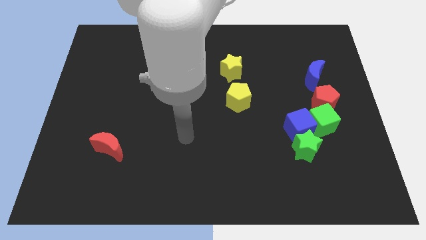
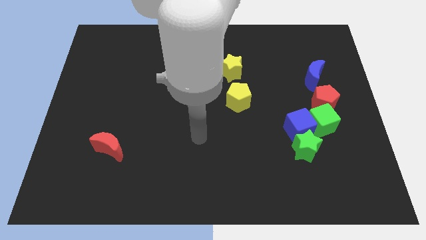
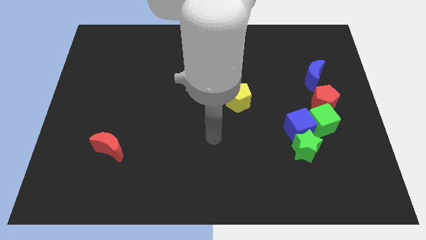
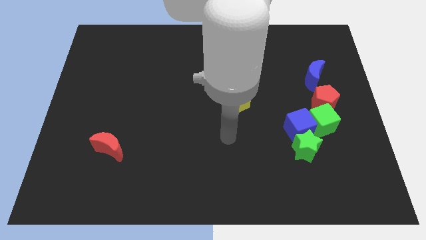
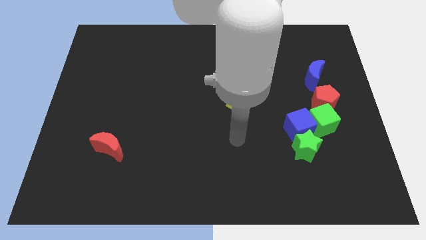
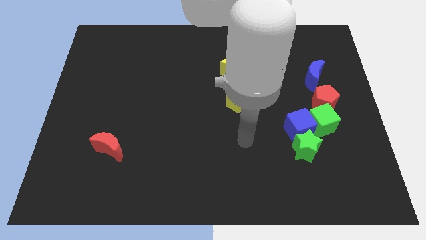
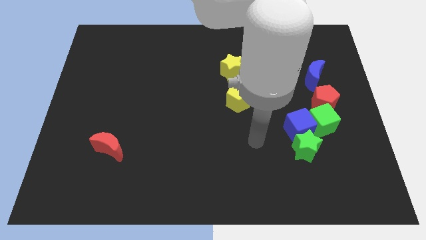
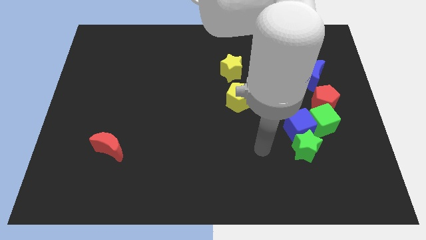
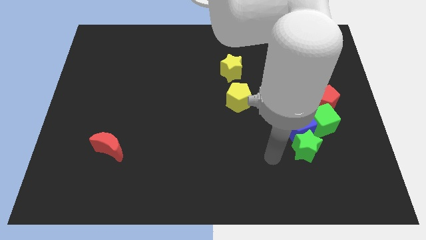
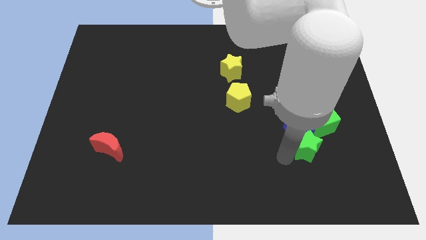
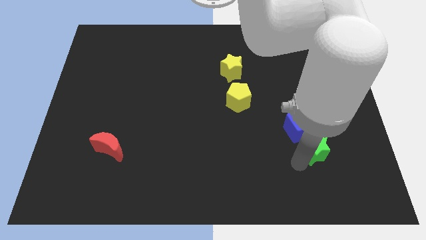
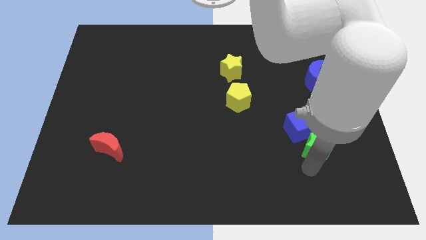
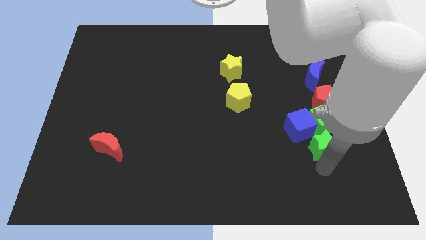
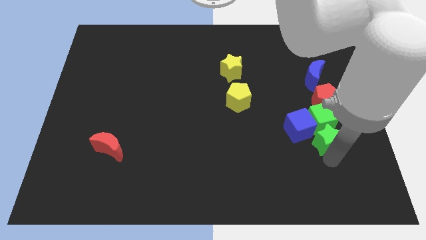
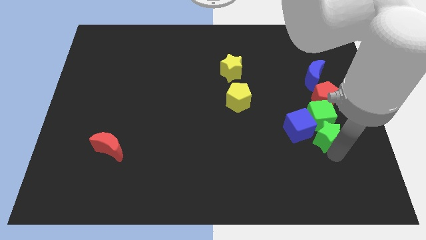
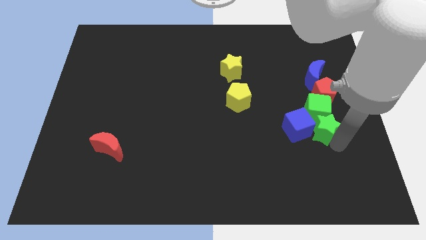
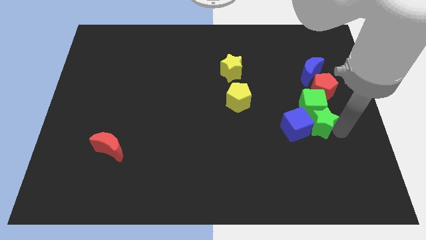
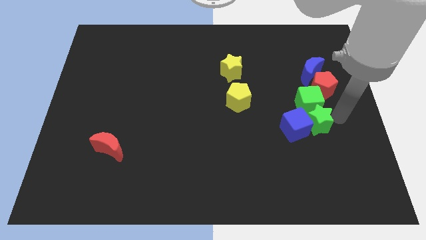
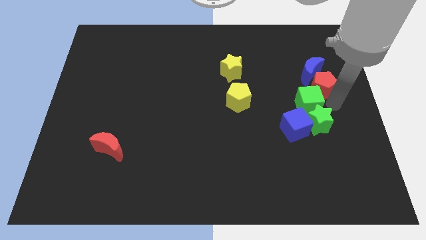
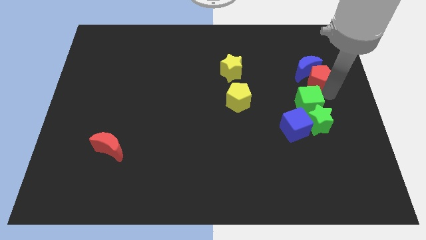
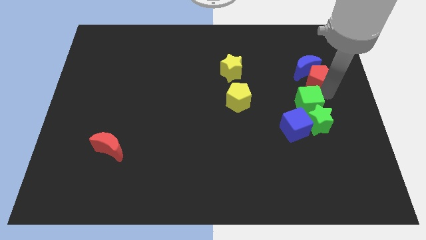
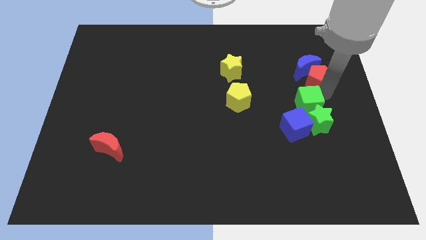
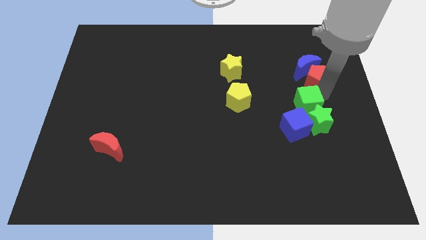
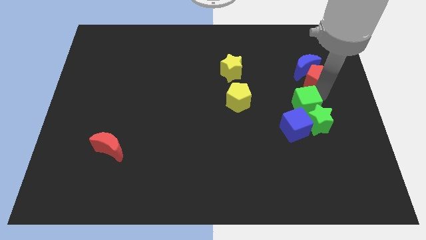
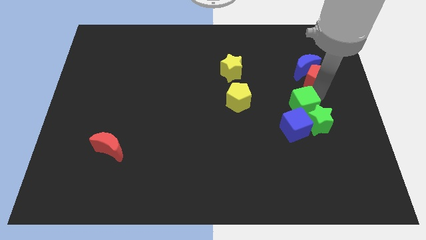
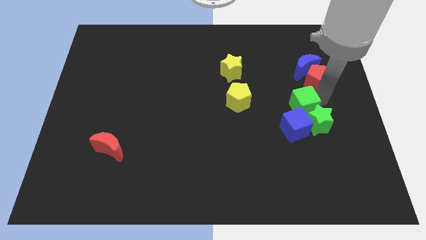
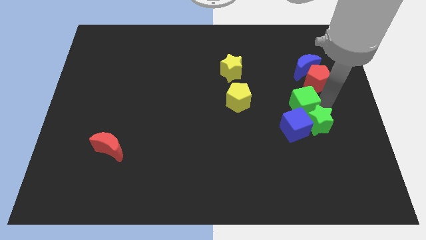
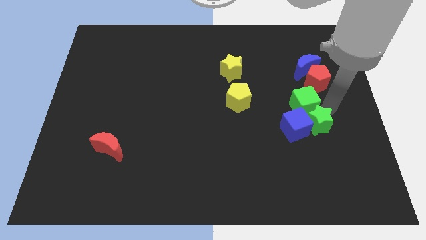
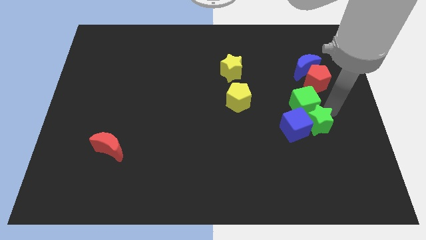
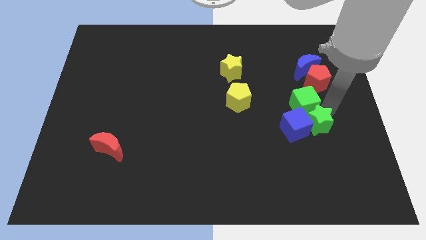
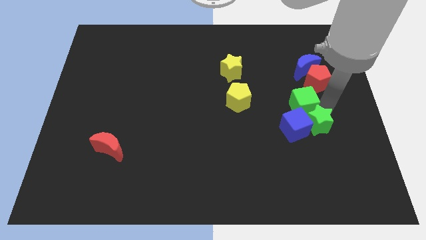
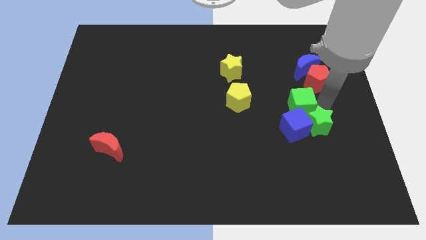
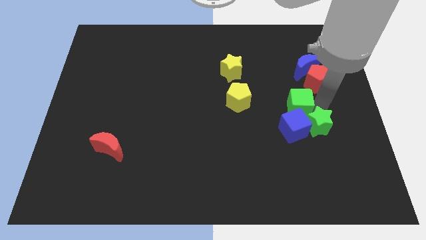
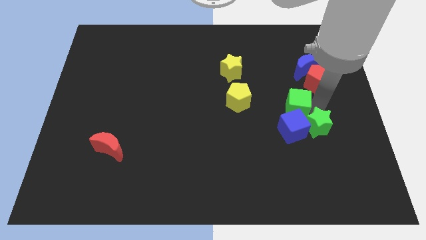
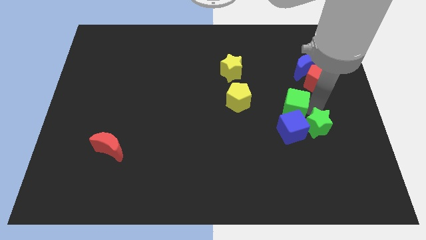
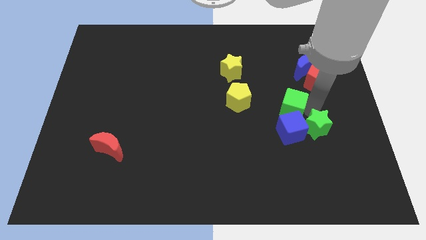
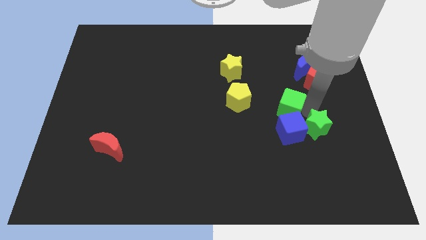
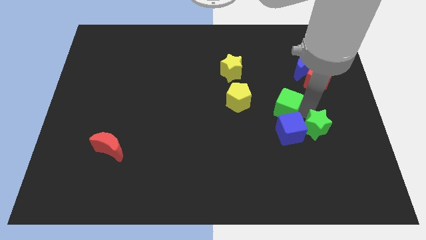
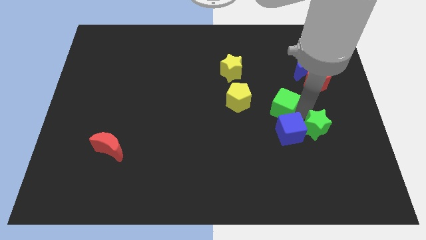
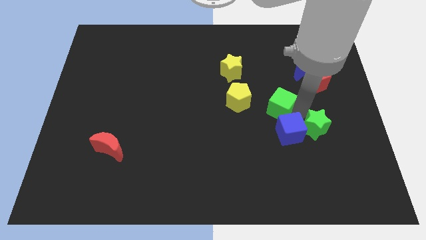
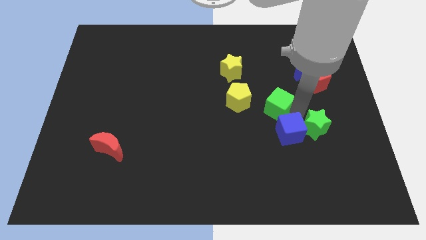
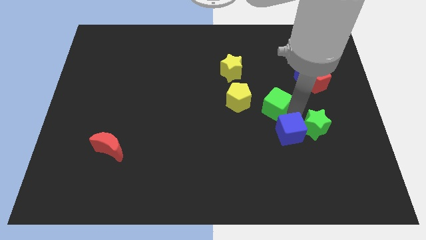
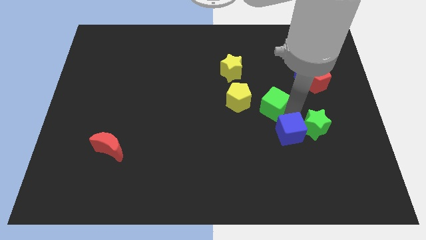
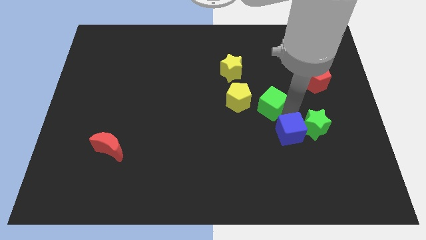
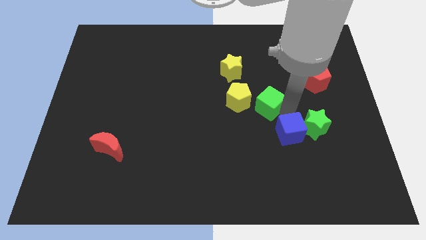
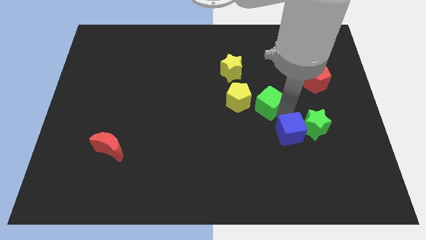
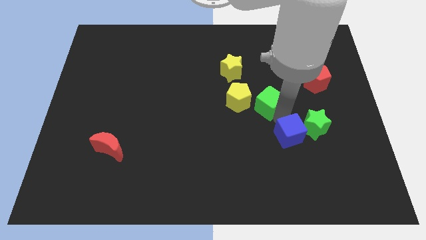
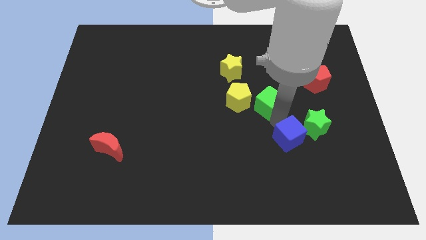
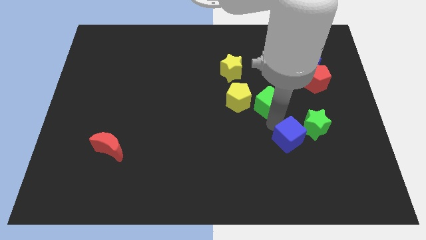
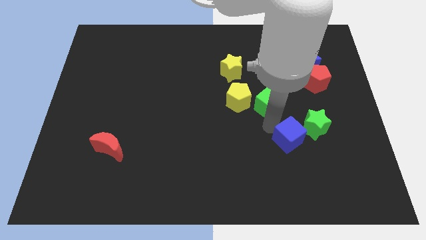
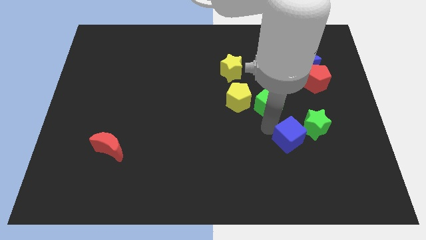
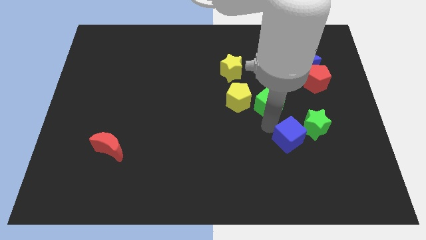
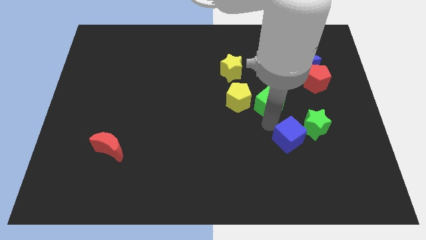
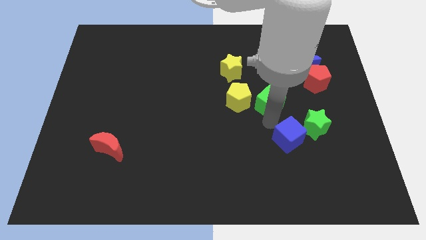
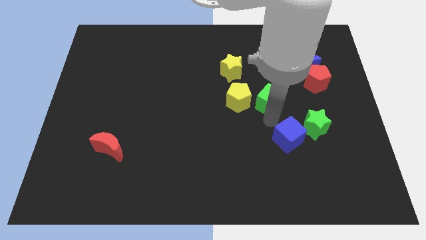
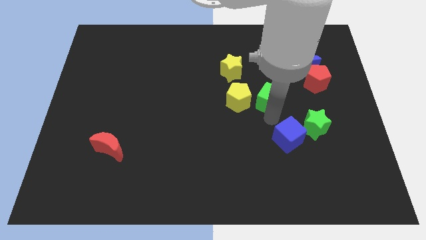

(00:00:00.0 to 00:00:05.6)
put the green cube to the bottom right of the yellow star

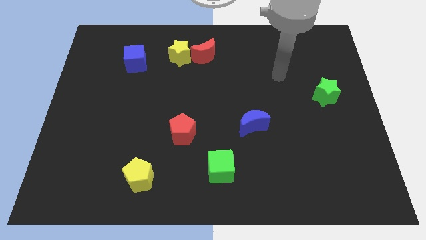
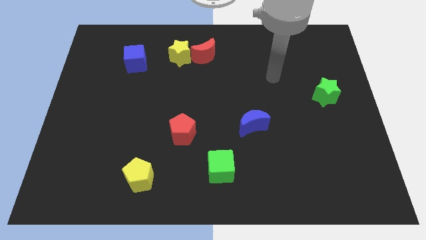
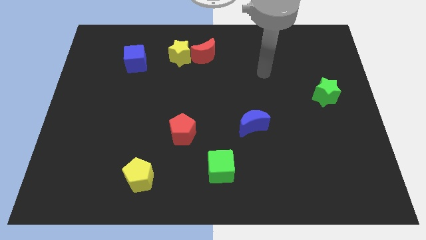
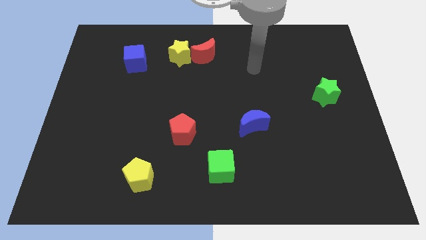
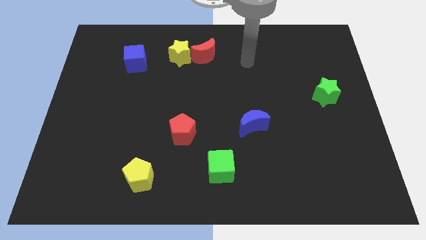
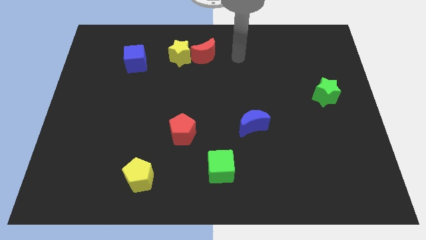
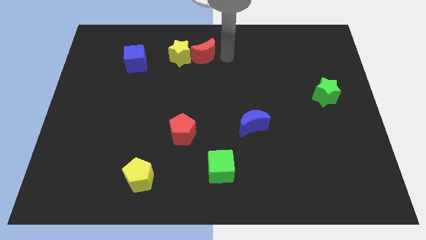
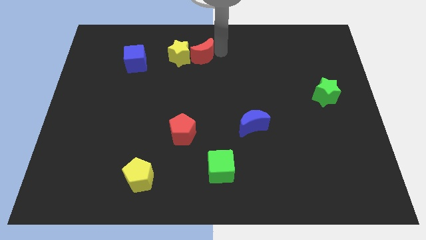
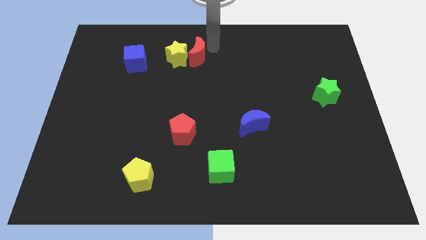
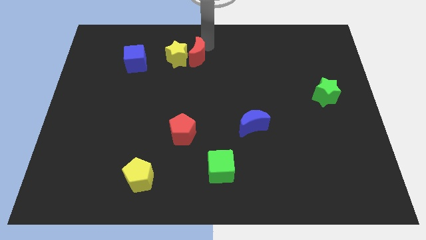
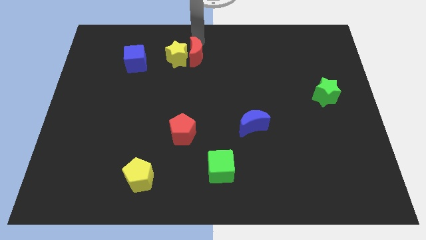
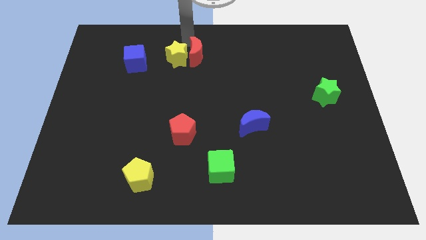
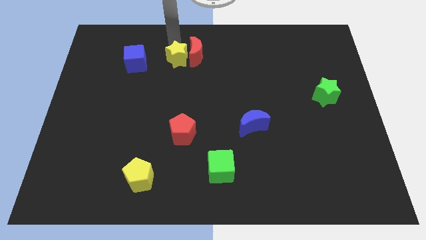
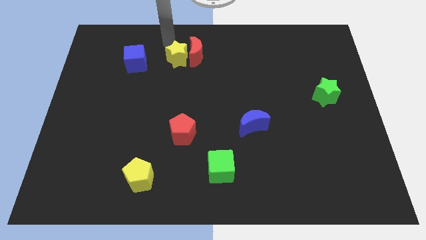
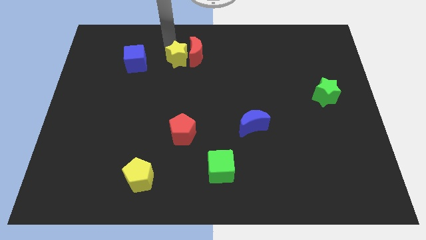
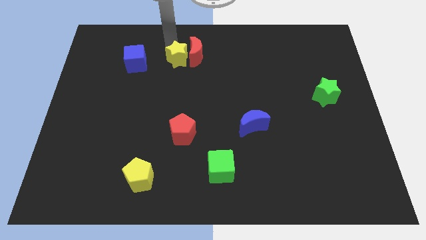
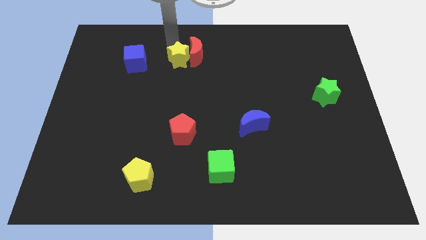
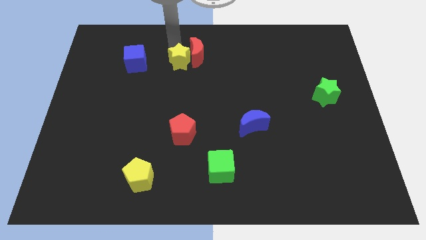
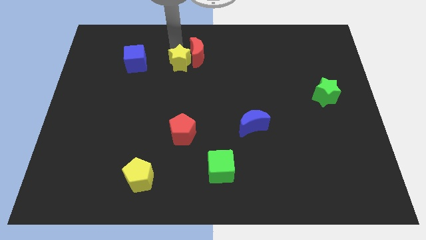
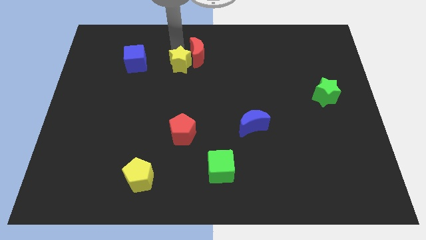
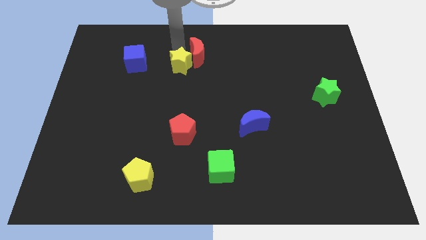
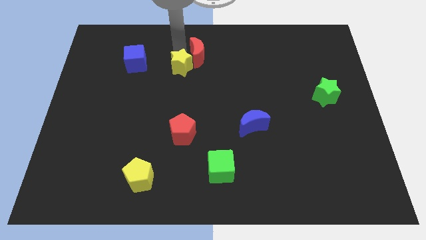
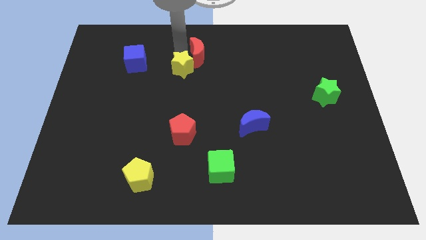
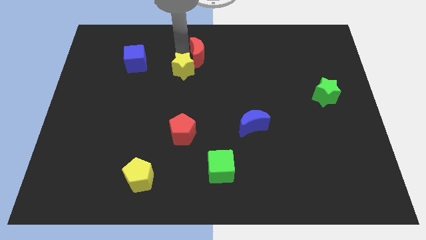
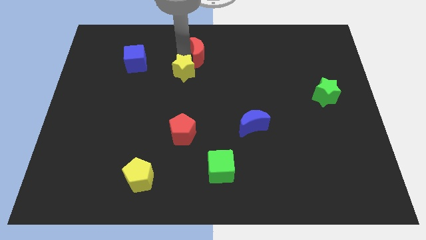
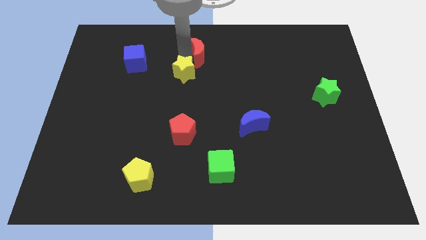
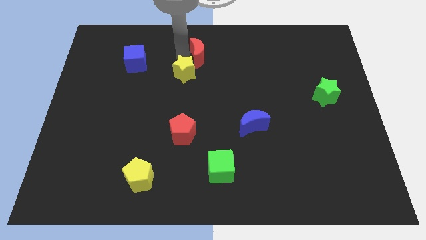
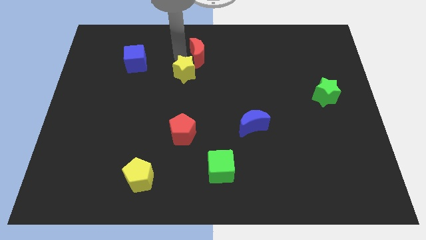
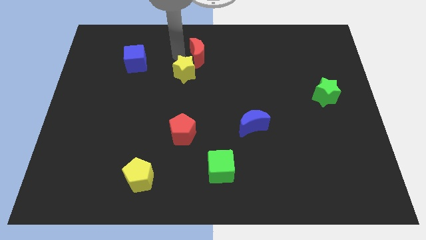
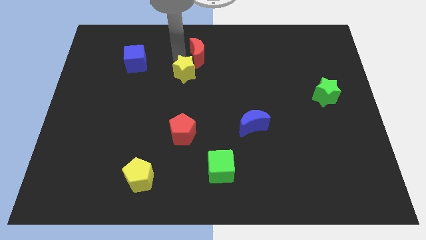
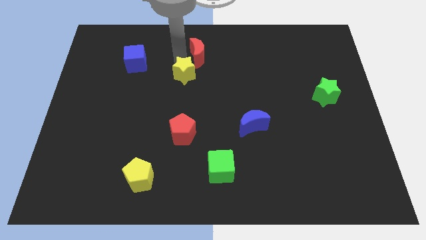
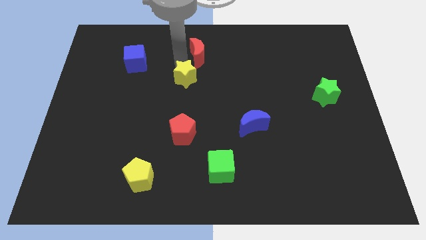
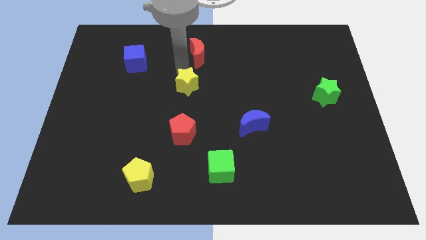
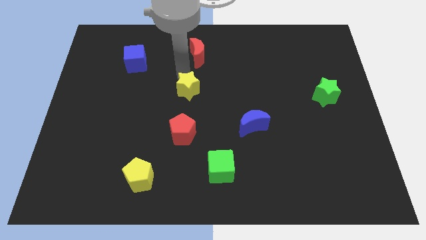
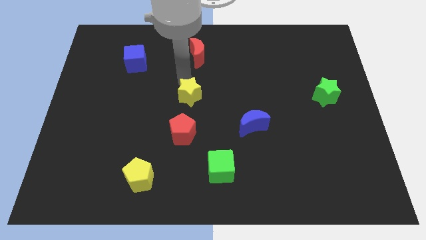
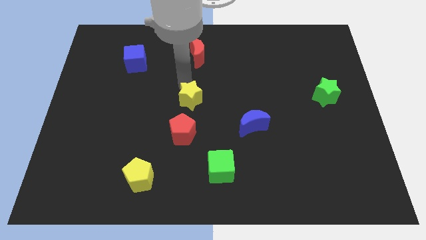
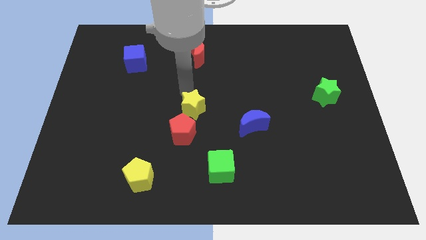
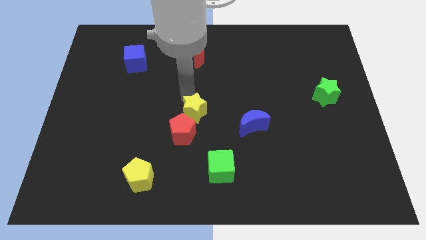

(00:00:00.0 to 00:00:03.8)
push the yellow star to the left of the blue moon
